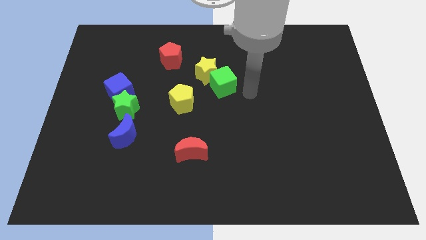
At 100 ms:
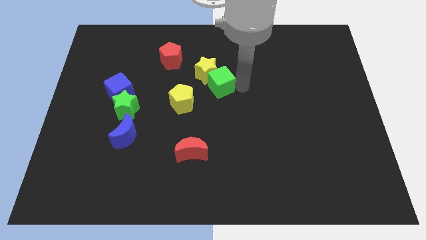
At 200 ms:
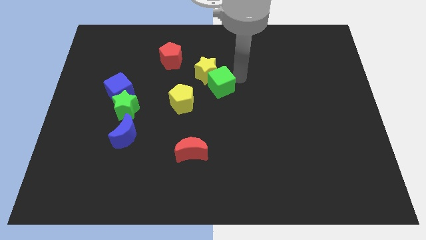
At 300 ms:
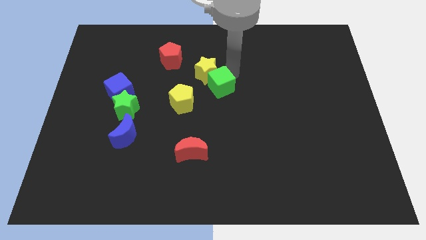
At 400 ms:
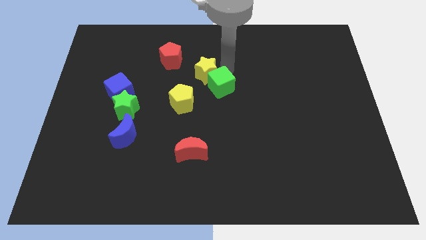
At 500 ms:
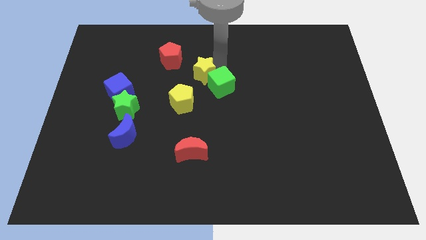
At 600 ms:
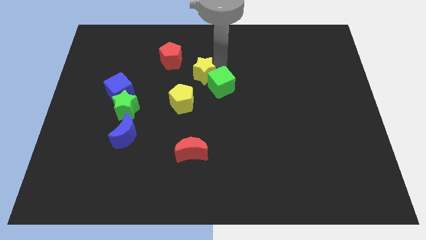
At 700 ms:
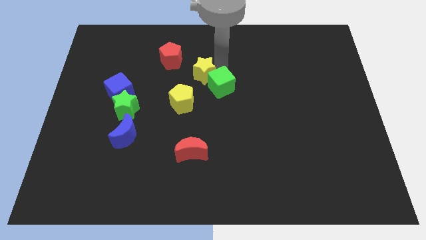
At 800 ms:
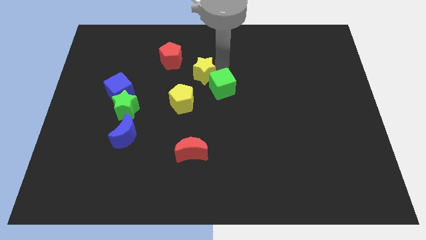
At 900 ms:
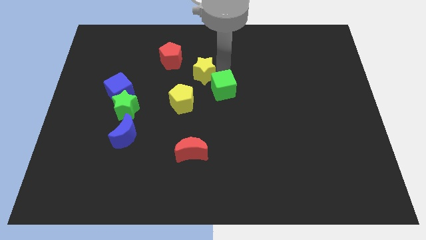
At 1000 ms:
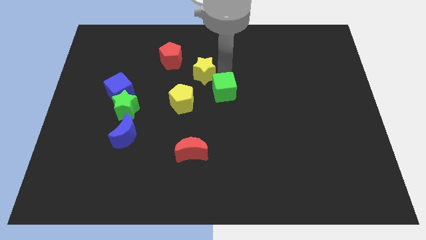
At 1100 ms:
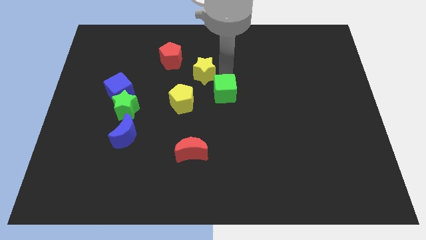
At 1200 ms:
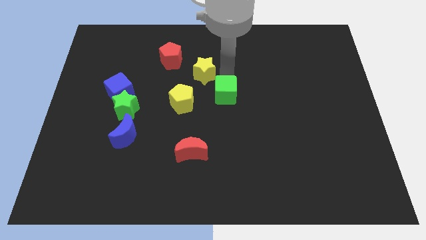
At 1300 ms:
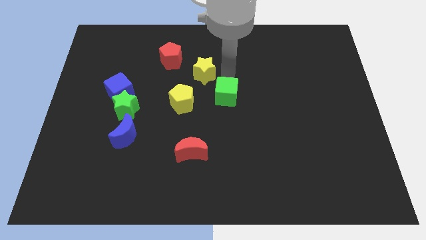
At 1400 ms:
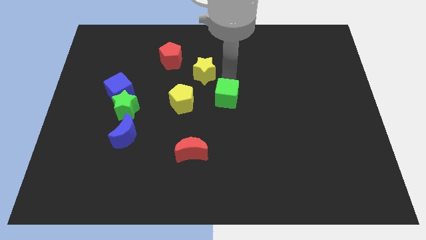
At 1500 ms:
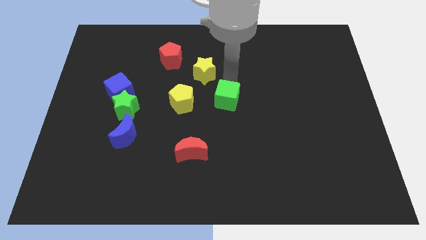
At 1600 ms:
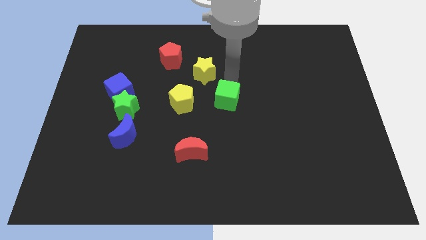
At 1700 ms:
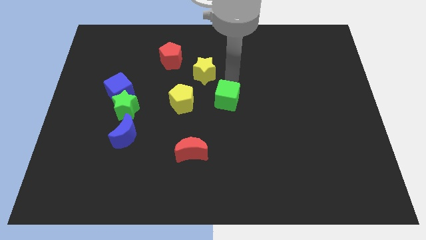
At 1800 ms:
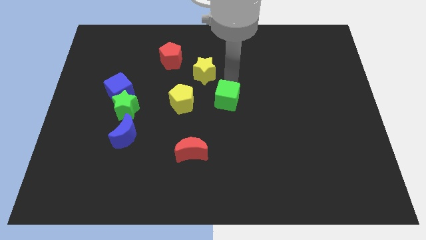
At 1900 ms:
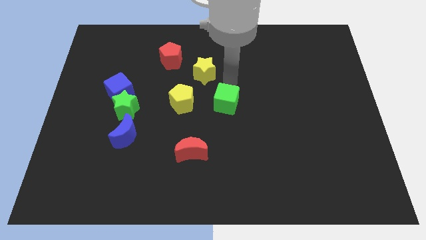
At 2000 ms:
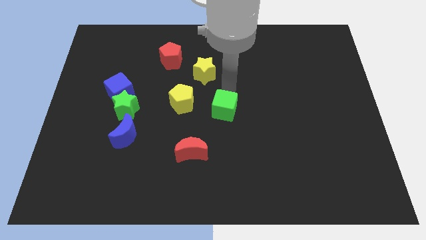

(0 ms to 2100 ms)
slide the green cube a little down

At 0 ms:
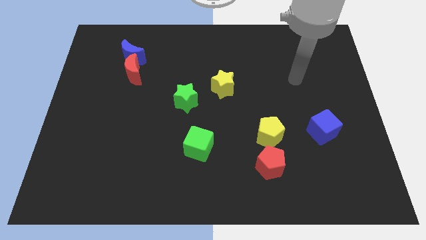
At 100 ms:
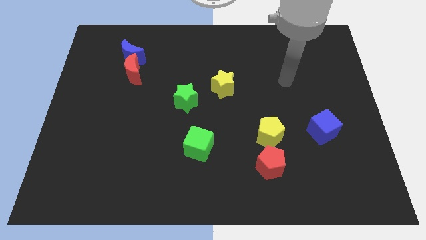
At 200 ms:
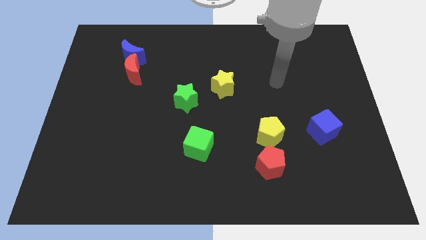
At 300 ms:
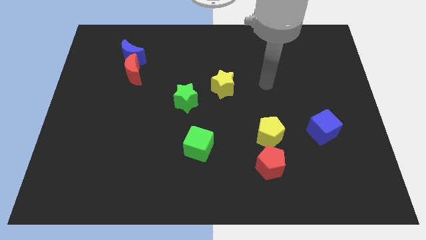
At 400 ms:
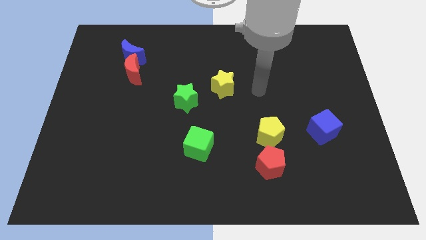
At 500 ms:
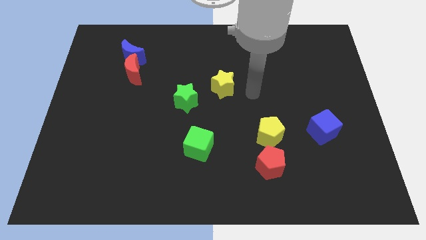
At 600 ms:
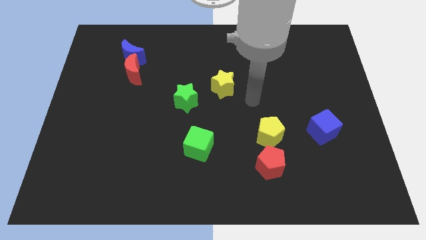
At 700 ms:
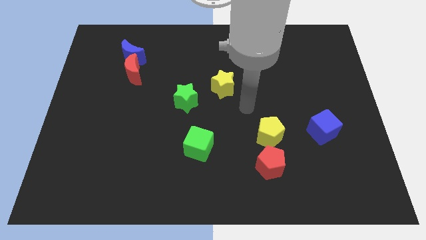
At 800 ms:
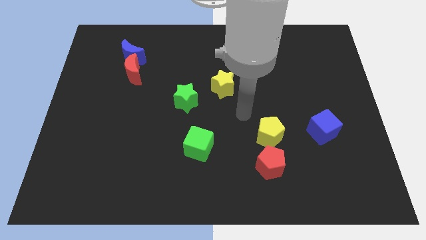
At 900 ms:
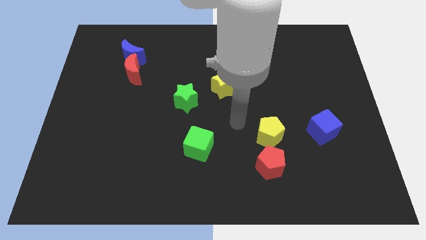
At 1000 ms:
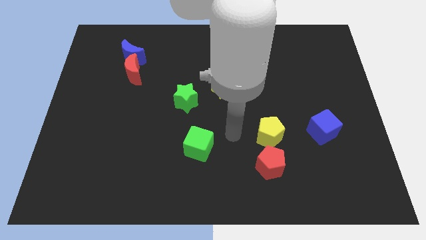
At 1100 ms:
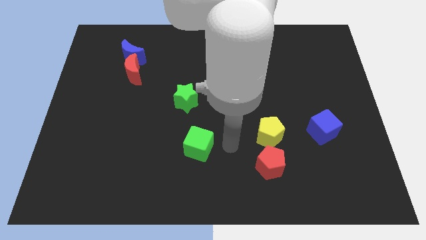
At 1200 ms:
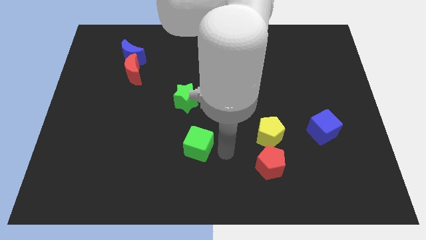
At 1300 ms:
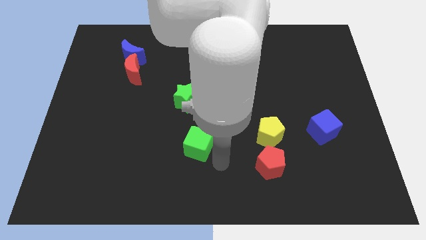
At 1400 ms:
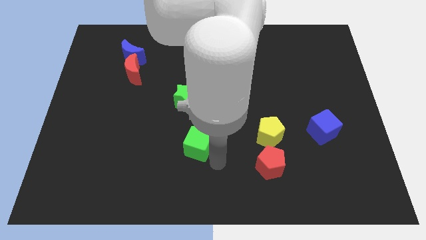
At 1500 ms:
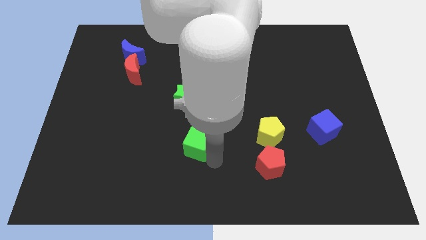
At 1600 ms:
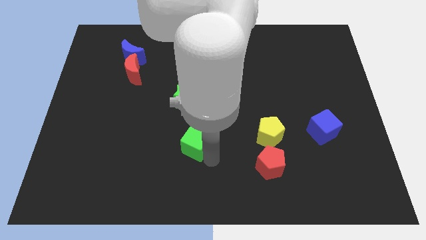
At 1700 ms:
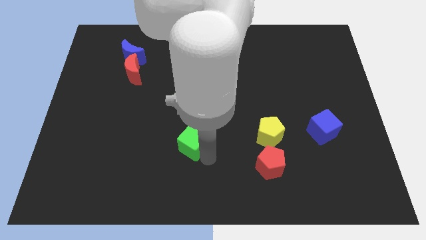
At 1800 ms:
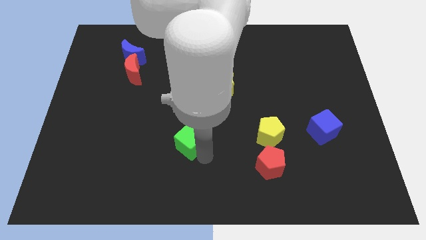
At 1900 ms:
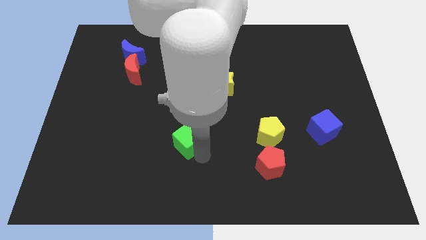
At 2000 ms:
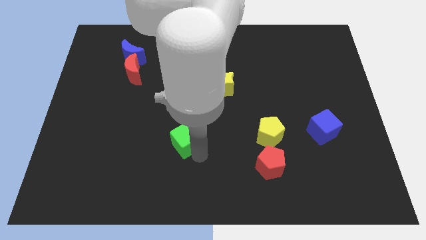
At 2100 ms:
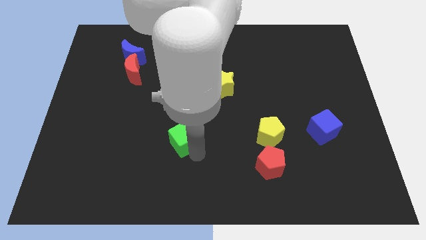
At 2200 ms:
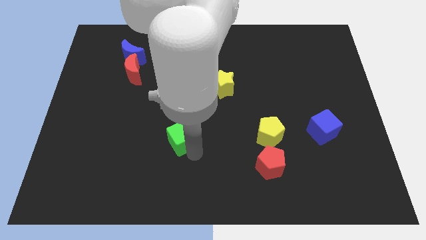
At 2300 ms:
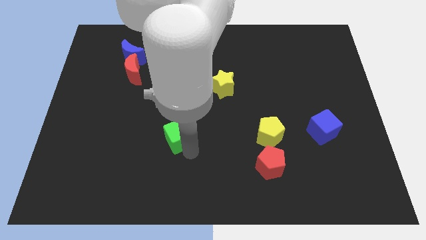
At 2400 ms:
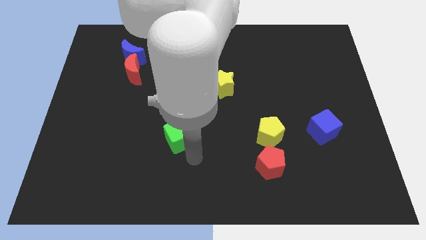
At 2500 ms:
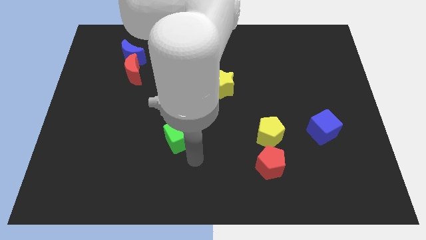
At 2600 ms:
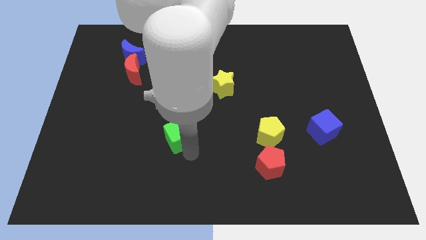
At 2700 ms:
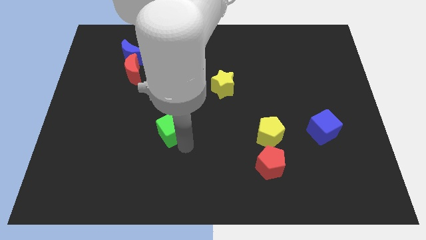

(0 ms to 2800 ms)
slightly slide the green cube upwards and to the left diagonally

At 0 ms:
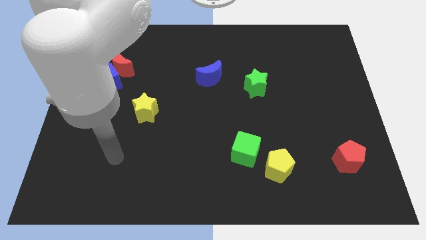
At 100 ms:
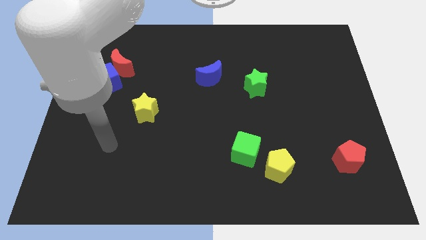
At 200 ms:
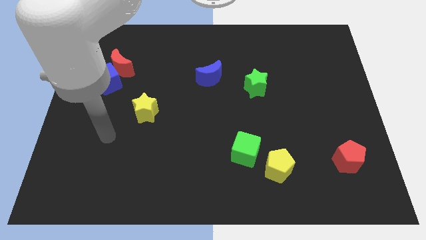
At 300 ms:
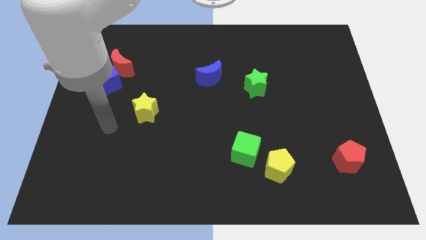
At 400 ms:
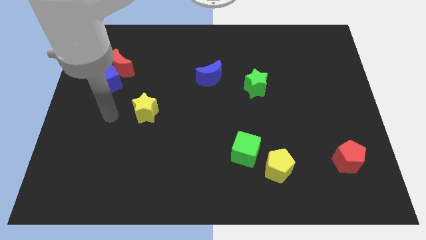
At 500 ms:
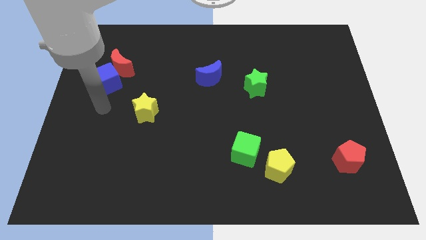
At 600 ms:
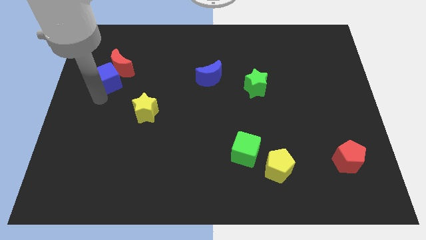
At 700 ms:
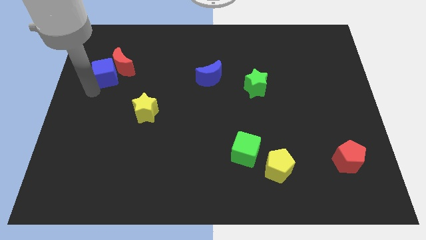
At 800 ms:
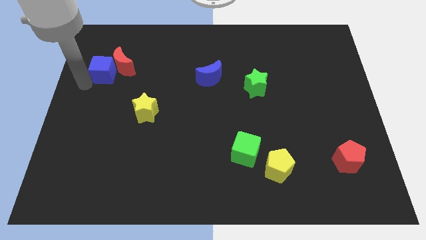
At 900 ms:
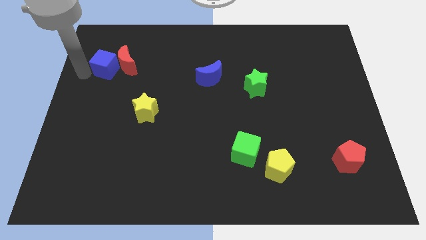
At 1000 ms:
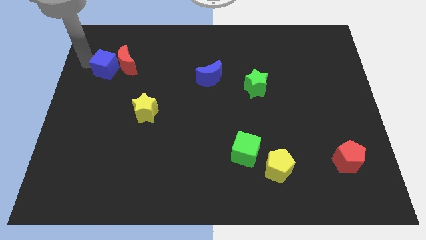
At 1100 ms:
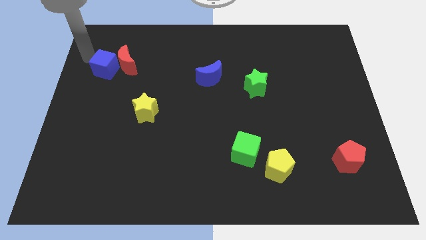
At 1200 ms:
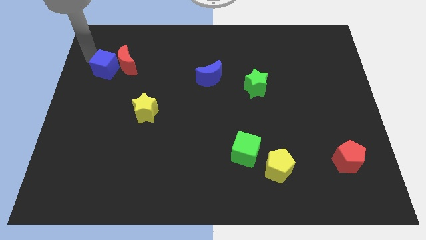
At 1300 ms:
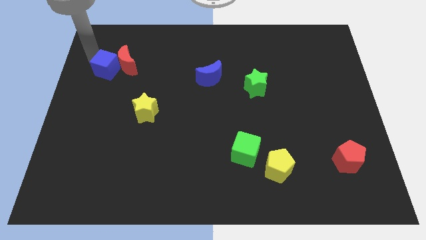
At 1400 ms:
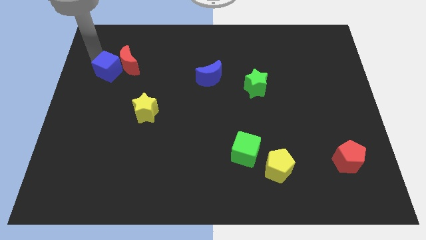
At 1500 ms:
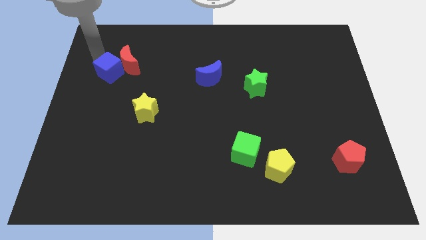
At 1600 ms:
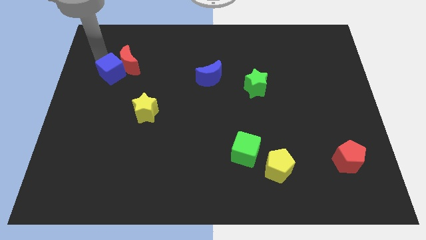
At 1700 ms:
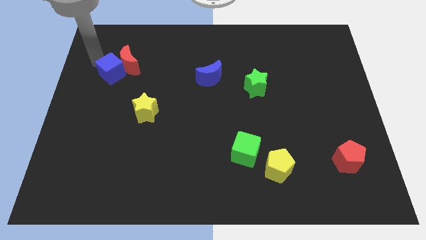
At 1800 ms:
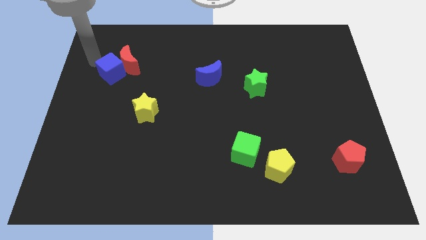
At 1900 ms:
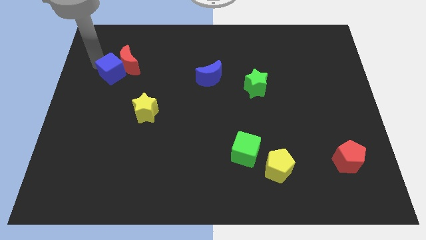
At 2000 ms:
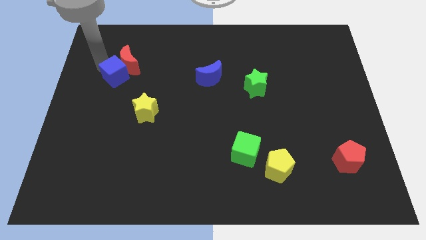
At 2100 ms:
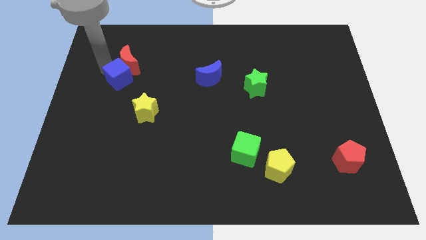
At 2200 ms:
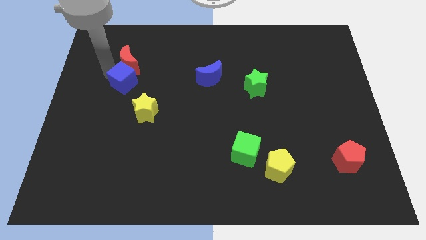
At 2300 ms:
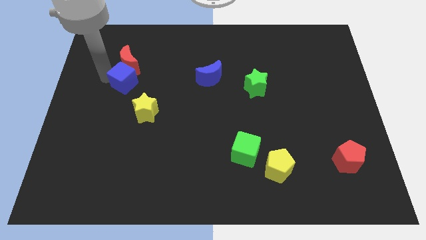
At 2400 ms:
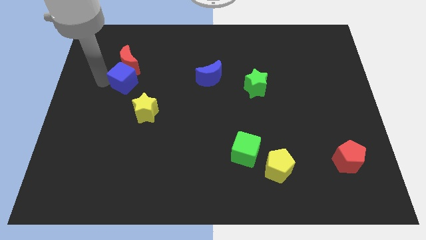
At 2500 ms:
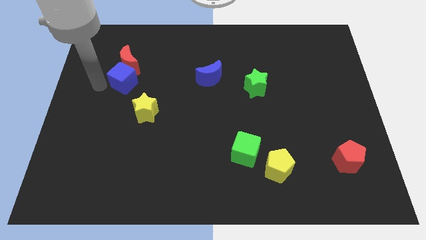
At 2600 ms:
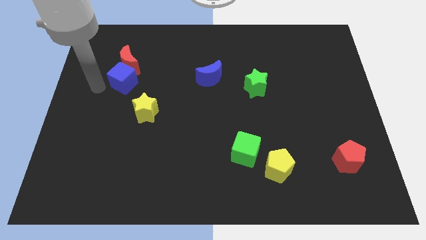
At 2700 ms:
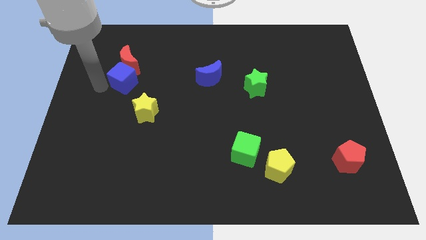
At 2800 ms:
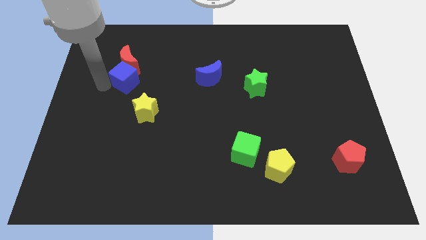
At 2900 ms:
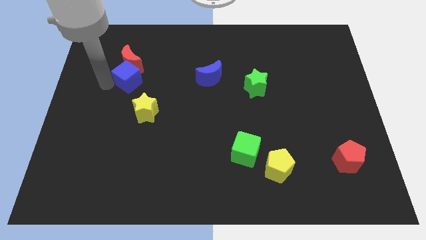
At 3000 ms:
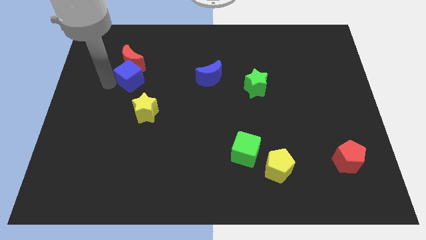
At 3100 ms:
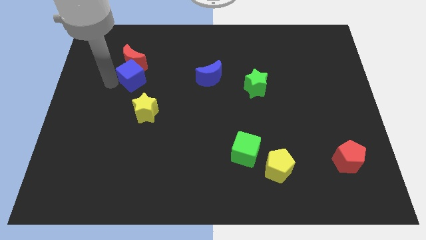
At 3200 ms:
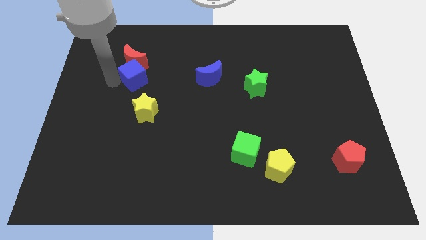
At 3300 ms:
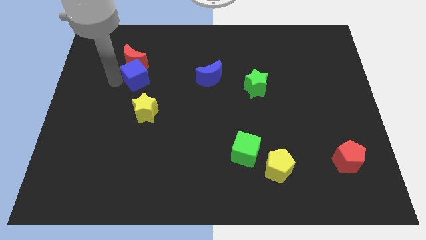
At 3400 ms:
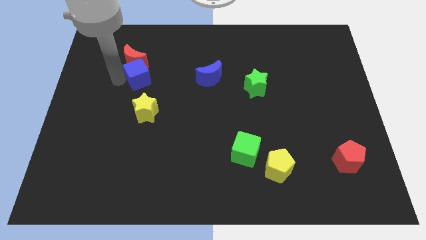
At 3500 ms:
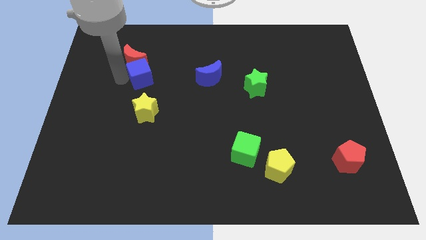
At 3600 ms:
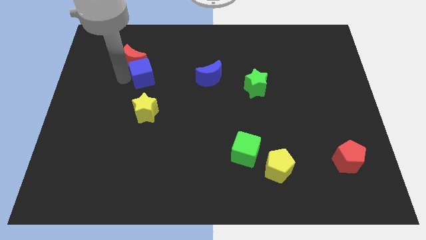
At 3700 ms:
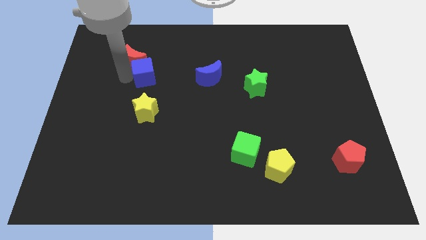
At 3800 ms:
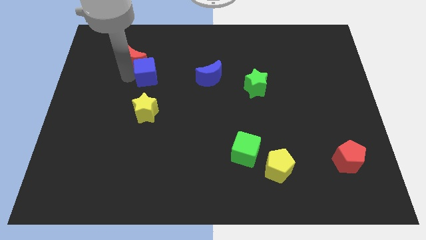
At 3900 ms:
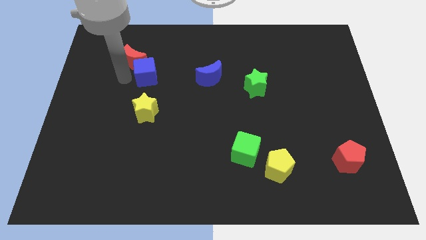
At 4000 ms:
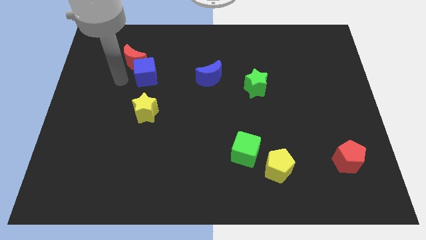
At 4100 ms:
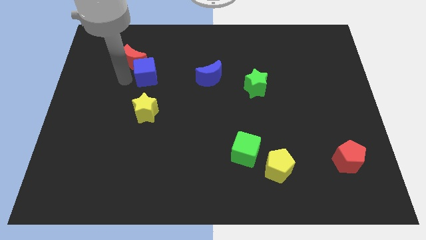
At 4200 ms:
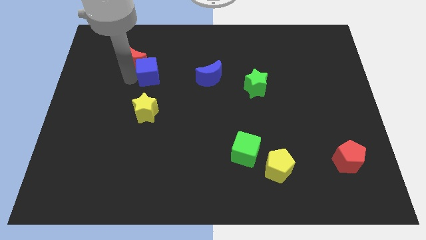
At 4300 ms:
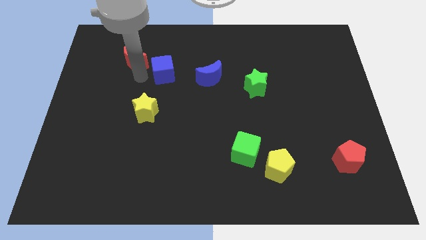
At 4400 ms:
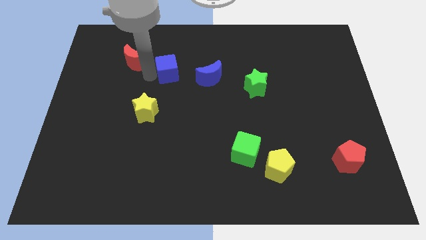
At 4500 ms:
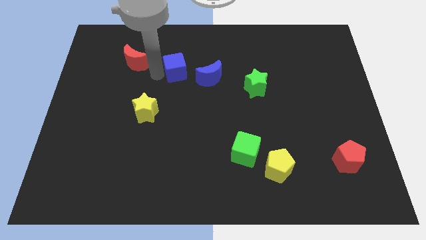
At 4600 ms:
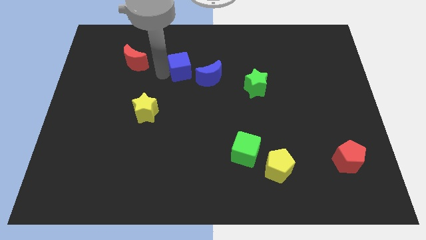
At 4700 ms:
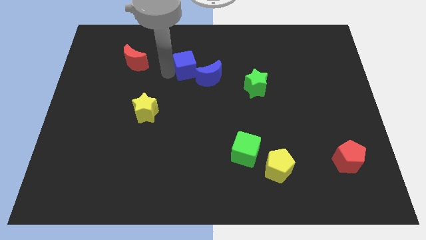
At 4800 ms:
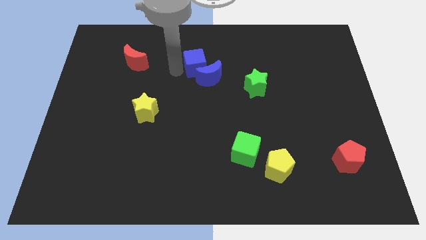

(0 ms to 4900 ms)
slide the blue cube right
